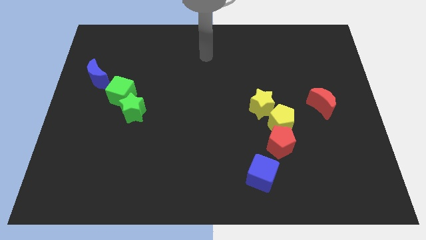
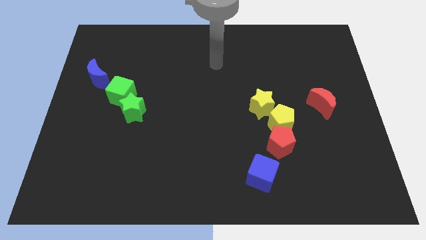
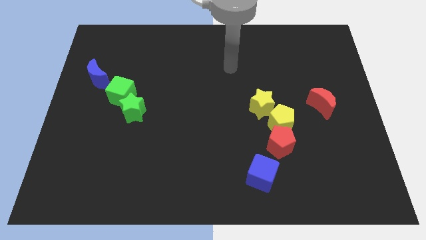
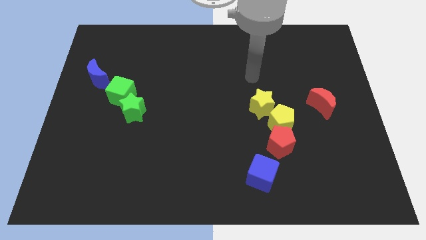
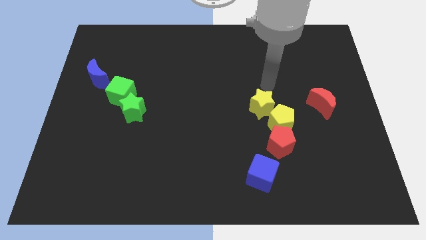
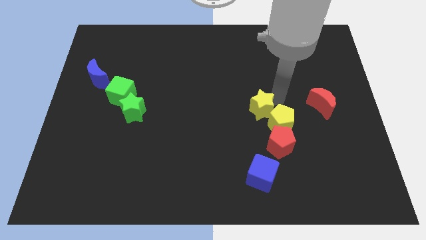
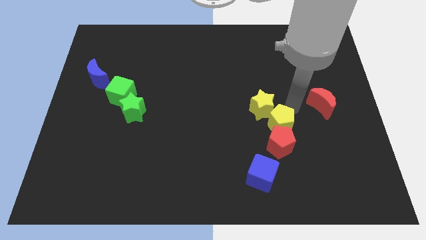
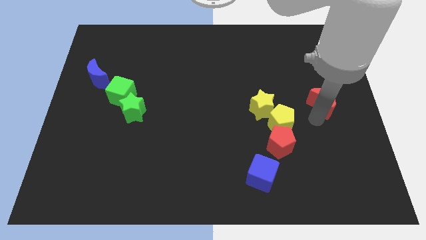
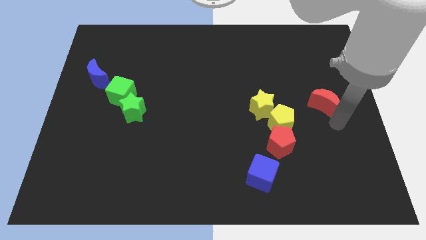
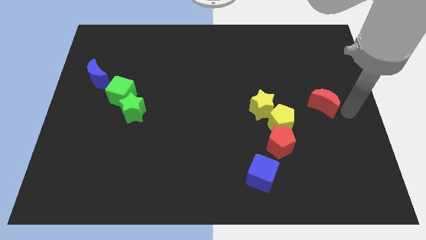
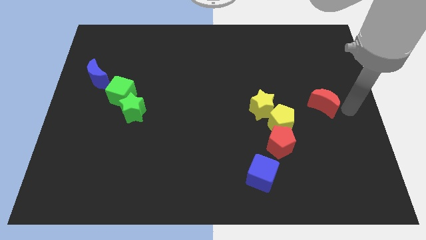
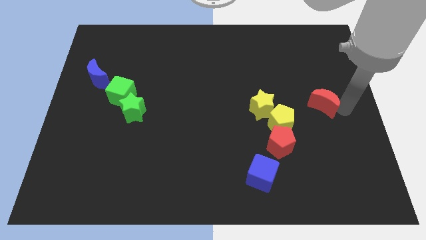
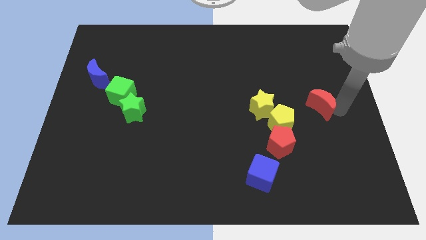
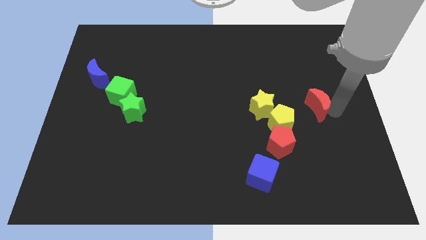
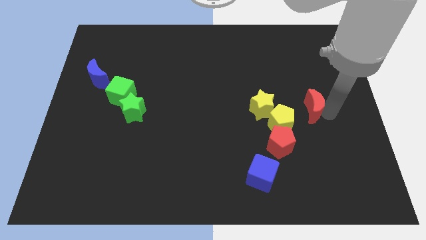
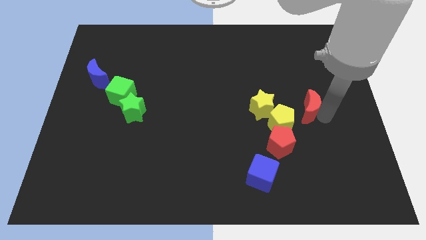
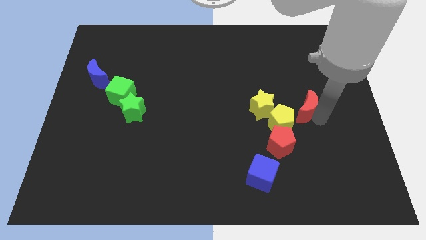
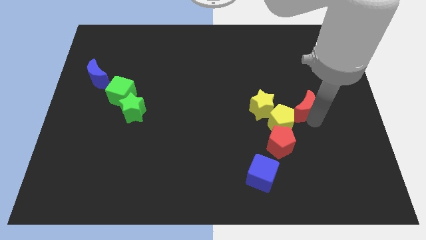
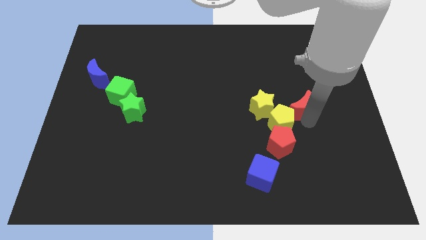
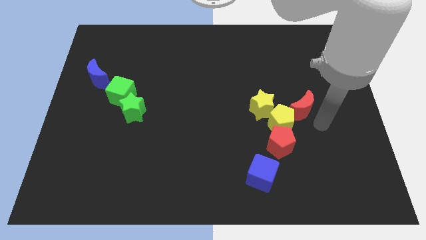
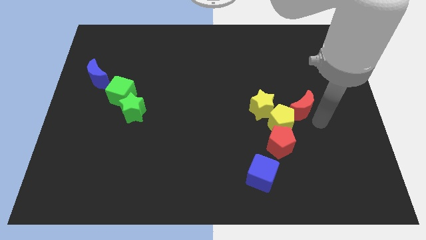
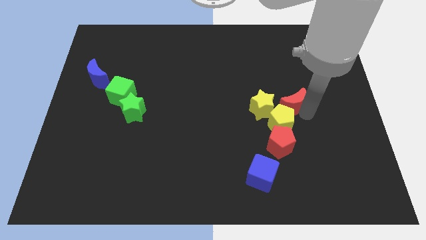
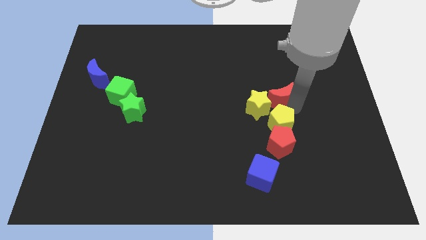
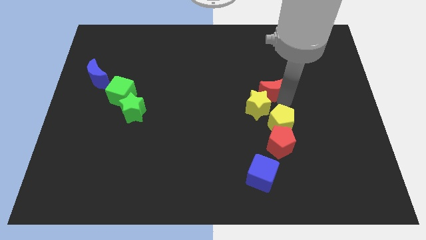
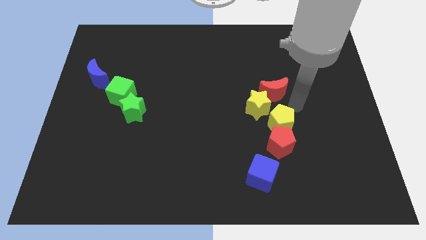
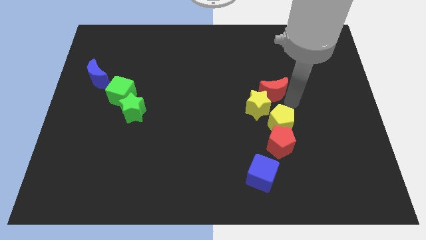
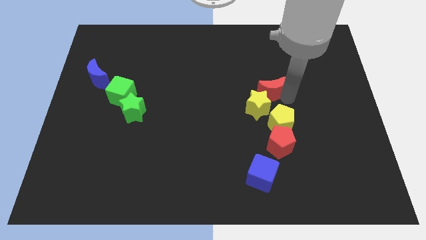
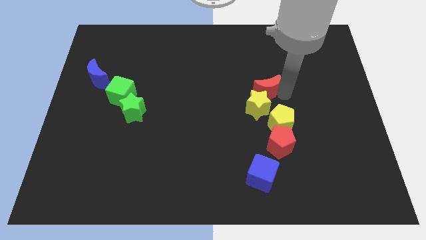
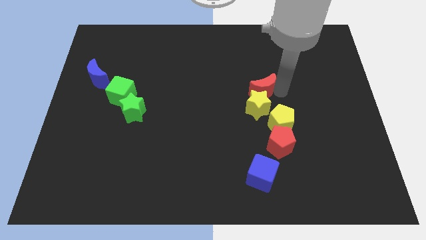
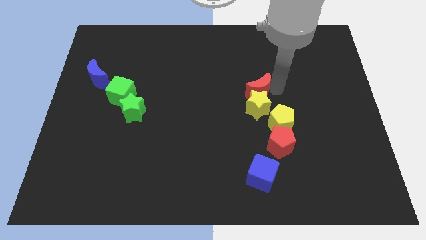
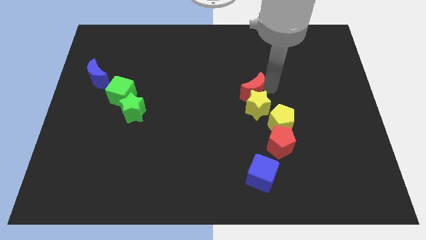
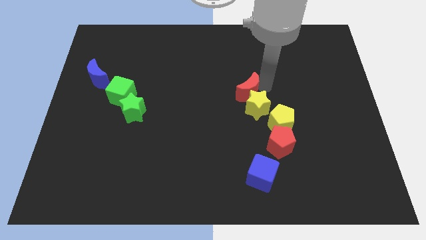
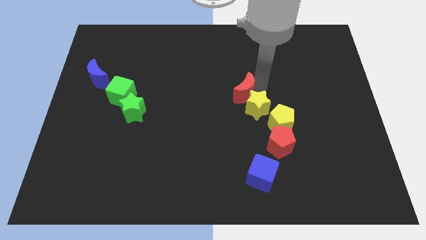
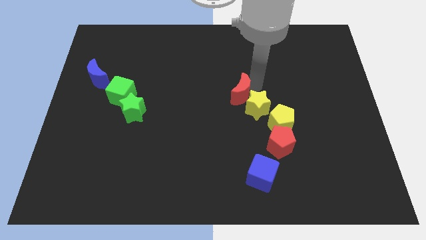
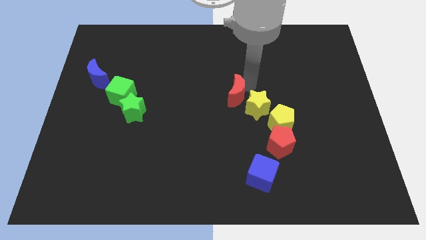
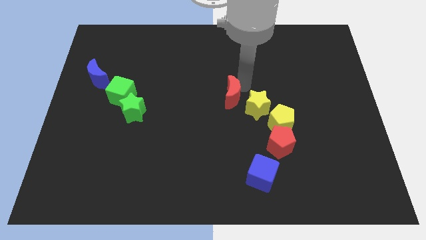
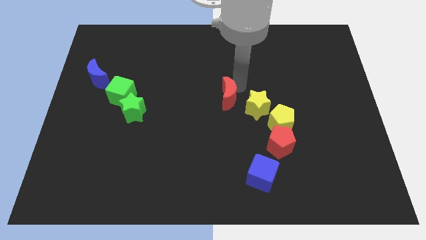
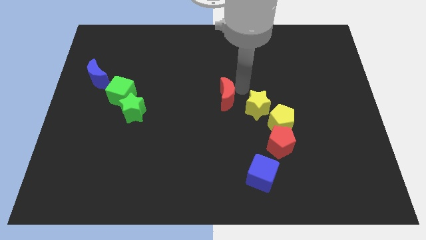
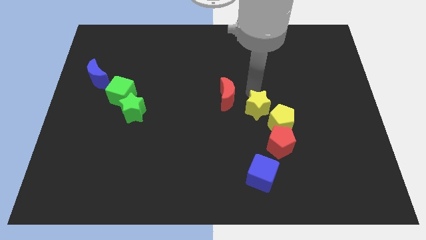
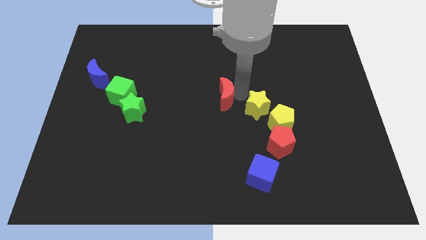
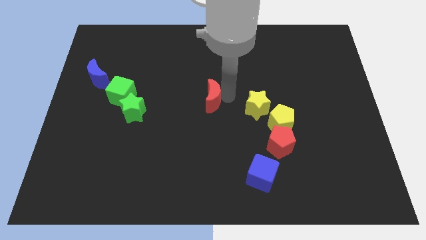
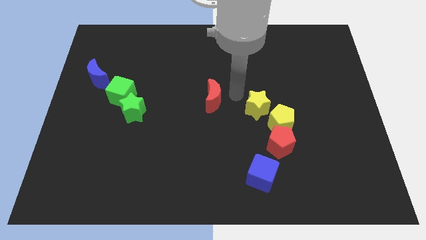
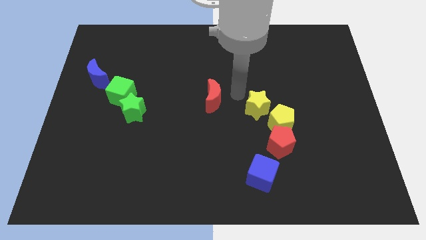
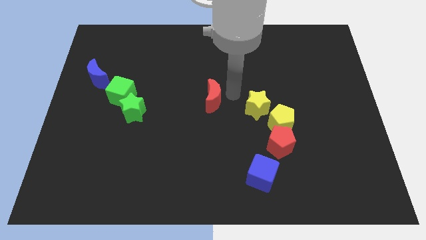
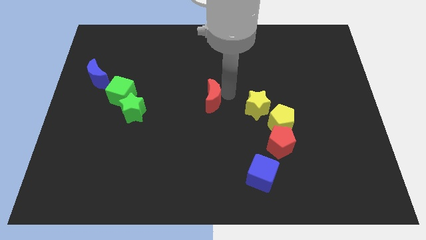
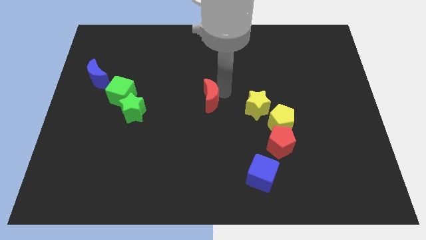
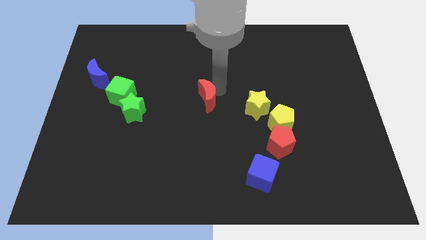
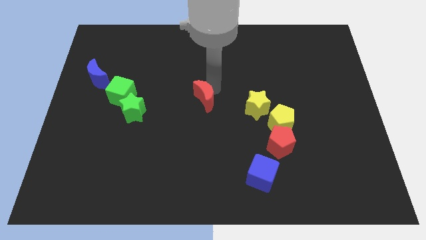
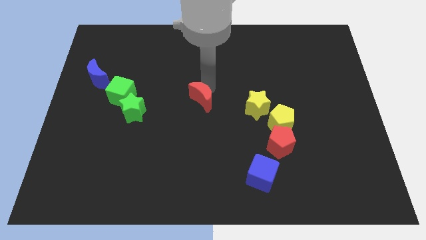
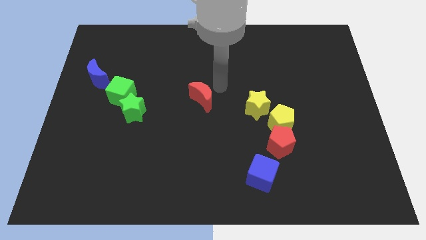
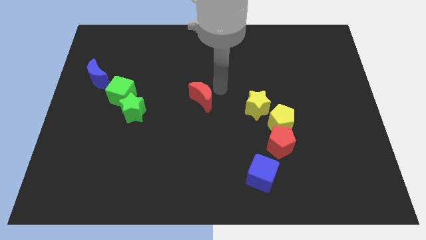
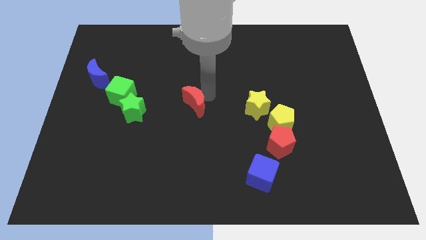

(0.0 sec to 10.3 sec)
slide the red moon to the right of the green star

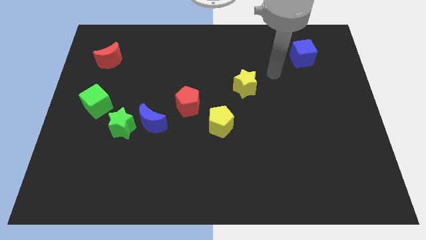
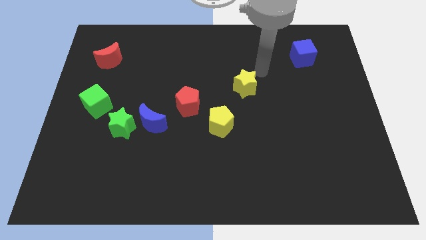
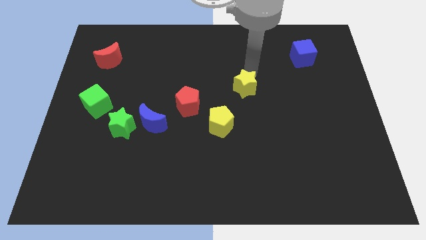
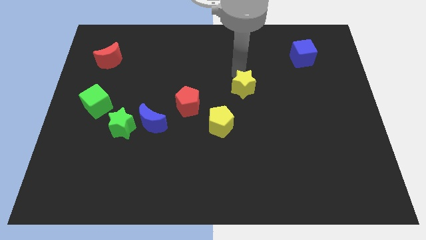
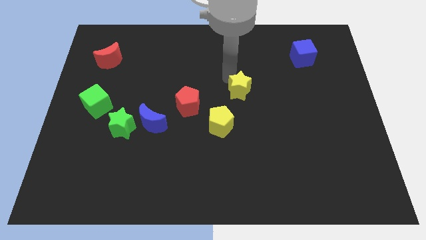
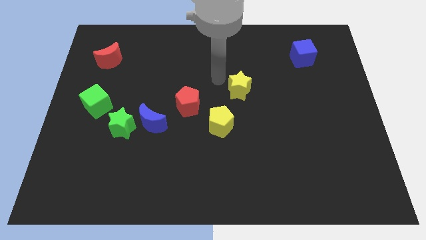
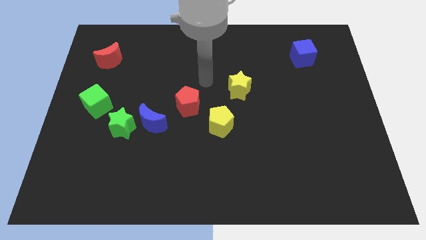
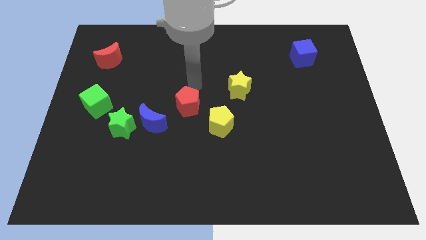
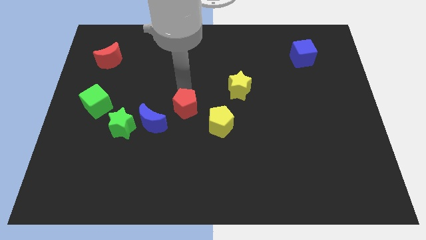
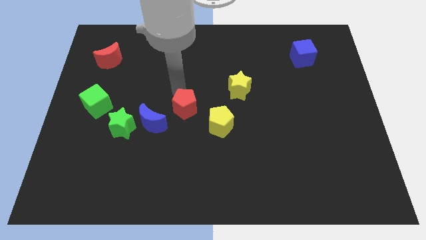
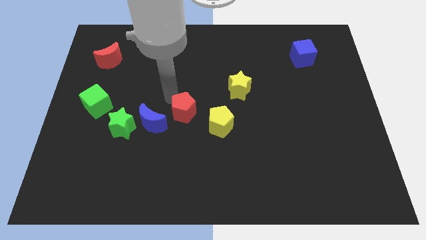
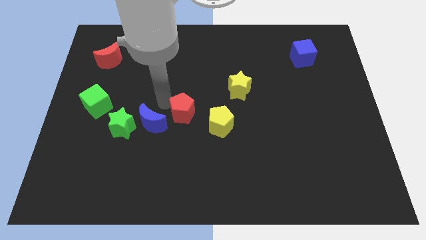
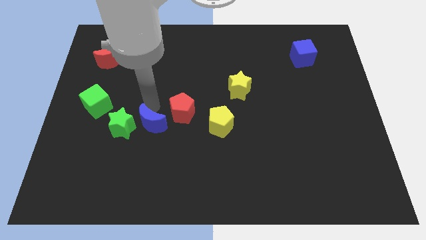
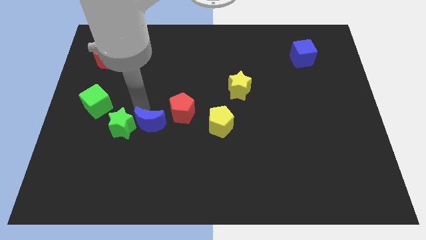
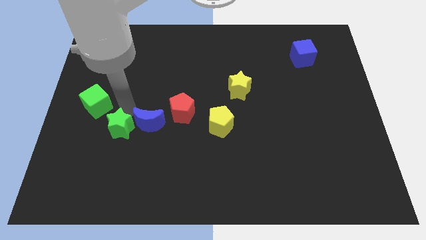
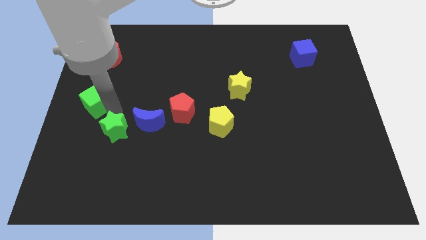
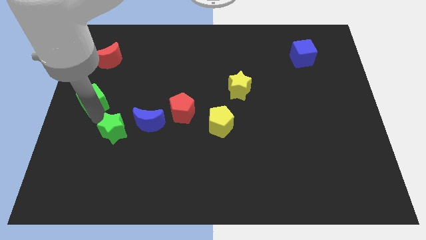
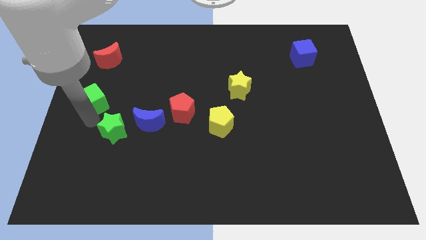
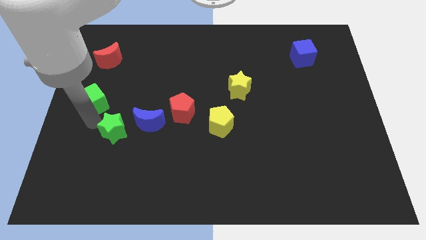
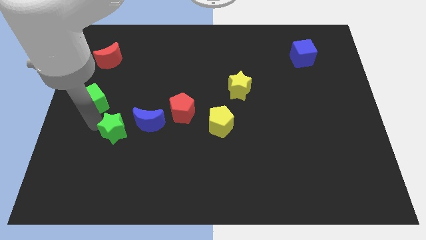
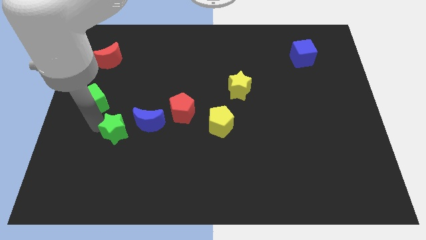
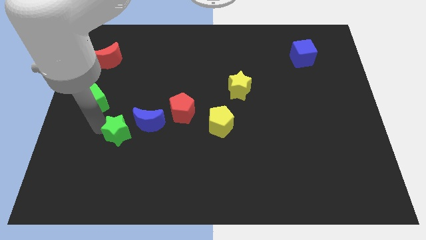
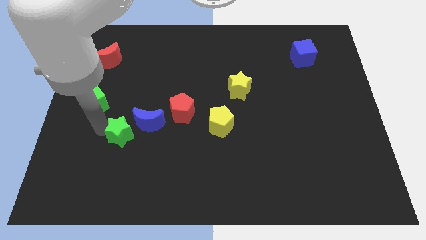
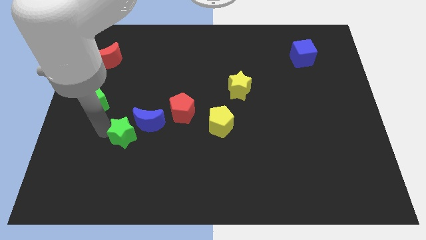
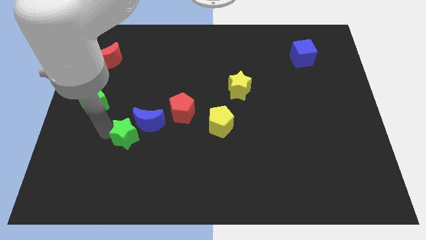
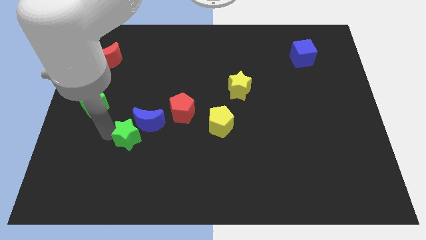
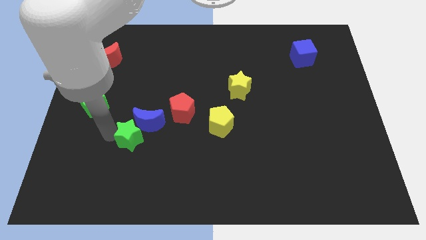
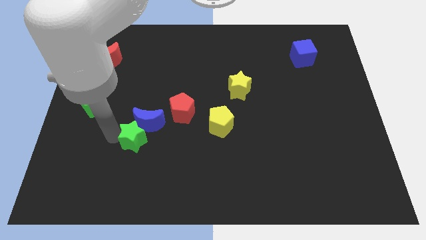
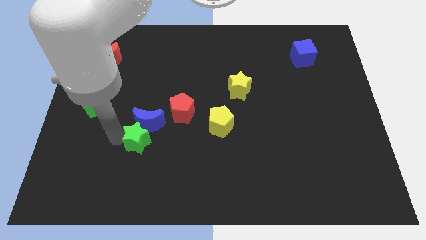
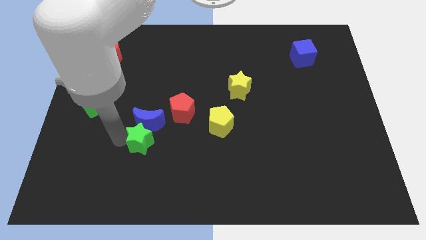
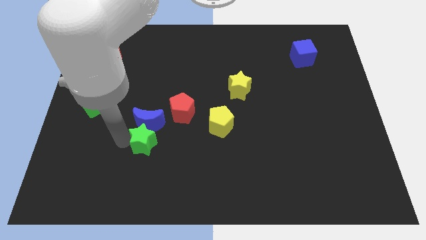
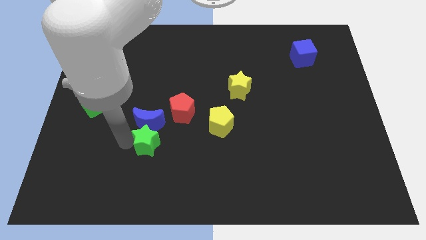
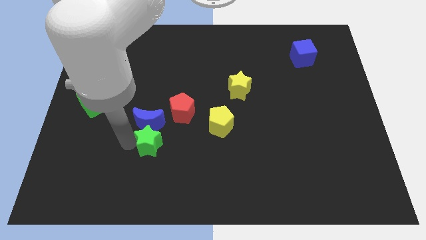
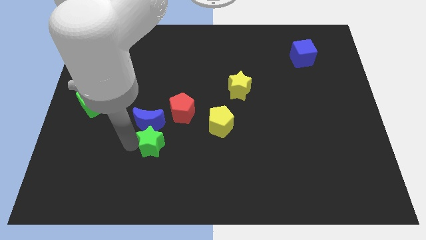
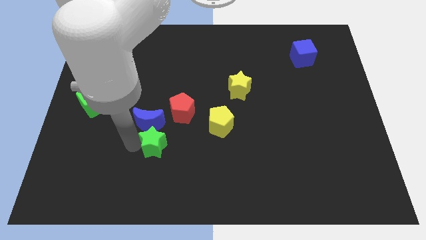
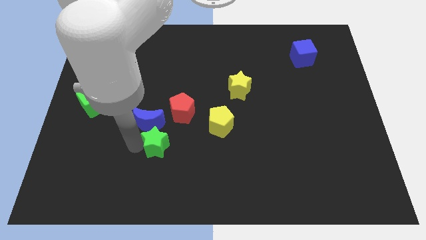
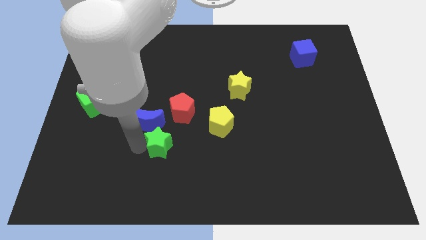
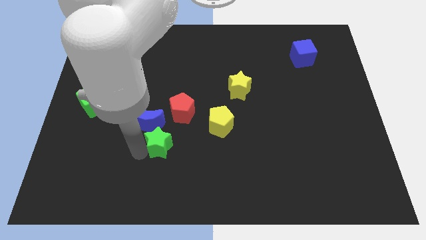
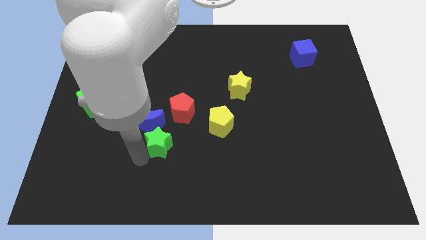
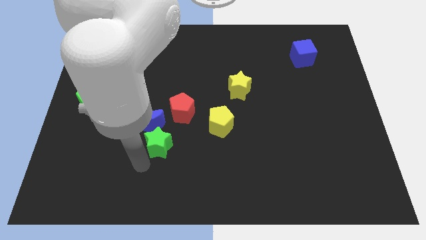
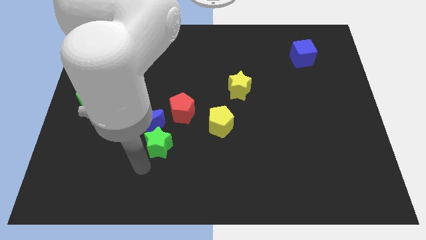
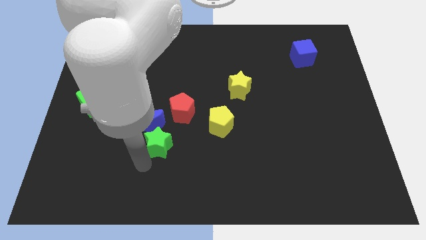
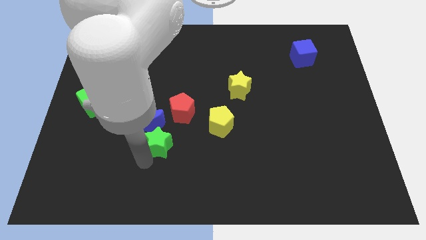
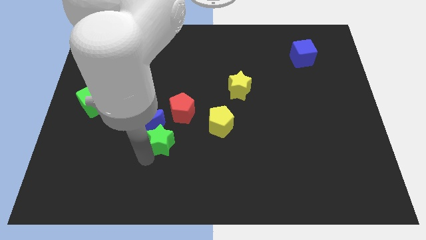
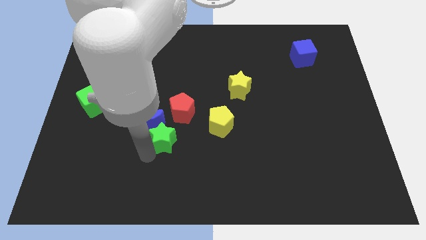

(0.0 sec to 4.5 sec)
slide the green star just left of the yellow pentagon
